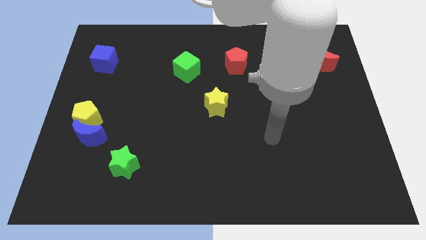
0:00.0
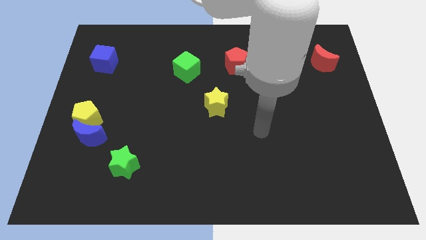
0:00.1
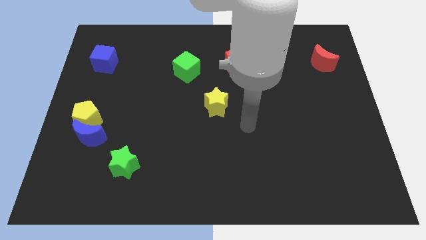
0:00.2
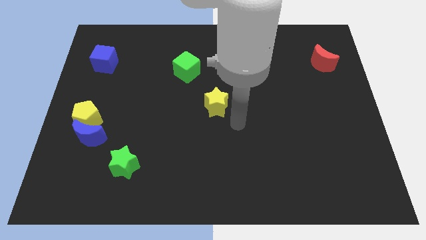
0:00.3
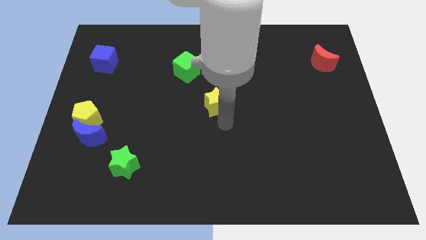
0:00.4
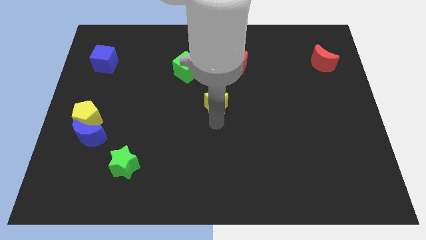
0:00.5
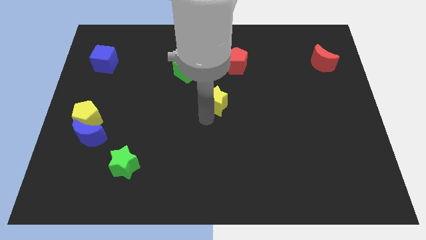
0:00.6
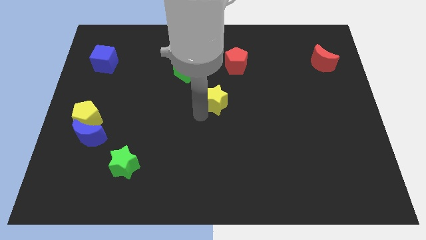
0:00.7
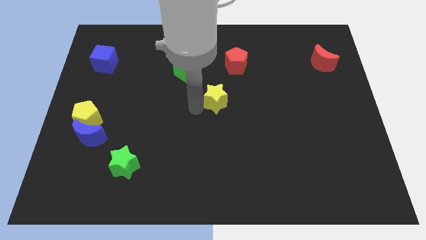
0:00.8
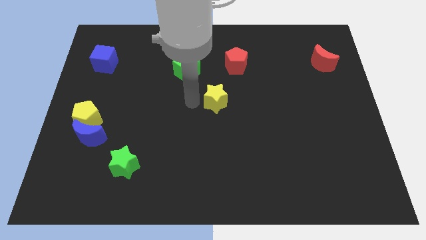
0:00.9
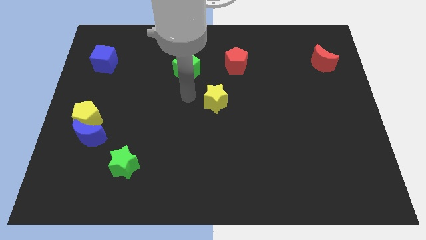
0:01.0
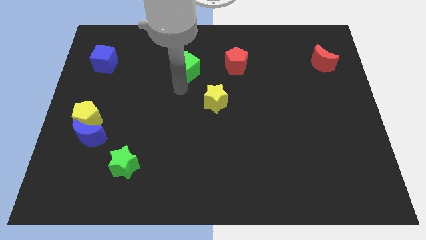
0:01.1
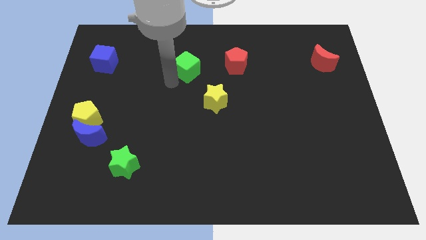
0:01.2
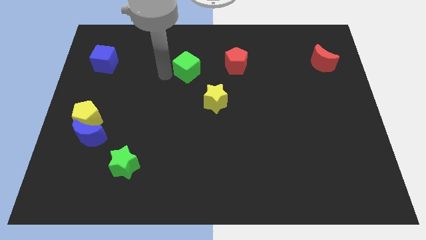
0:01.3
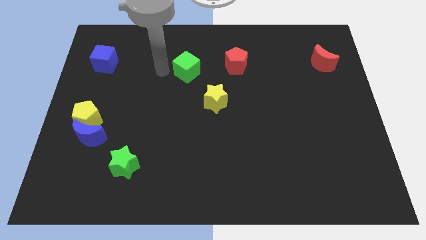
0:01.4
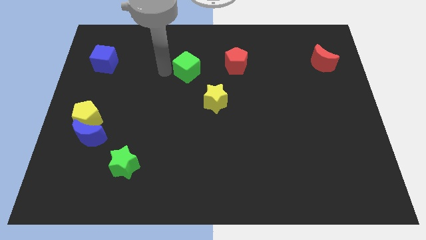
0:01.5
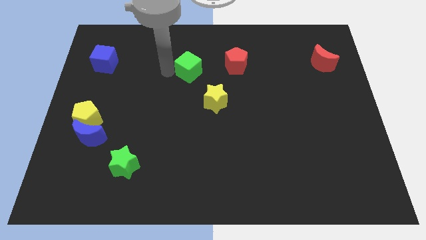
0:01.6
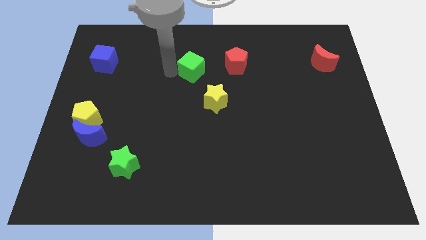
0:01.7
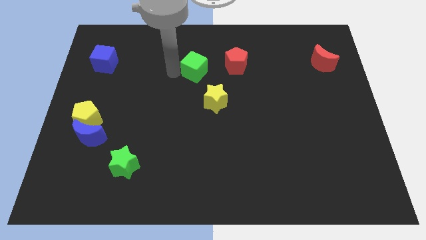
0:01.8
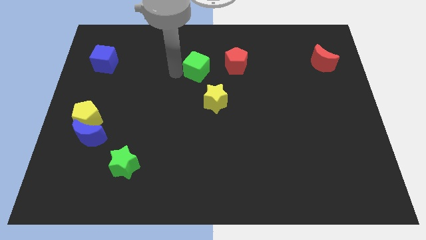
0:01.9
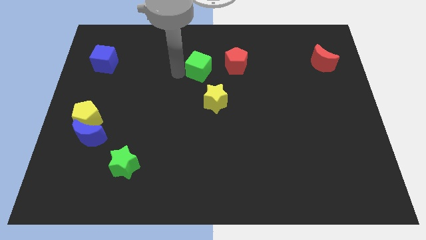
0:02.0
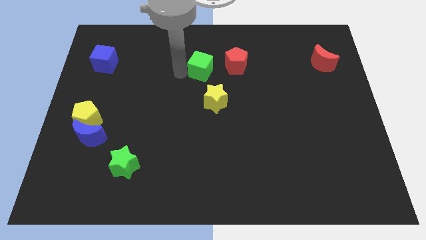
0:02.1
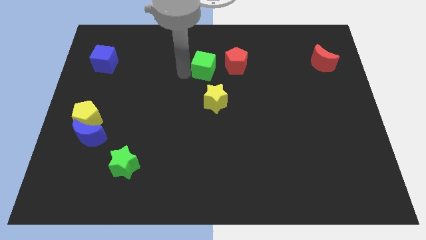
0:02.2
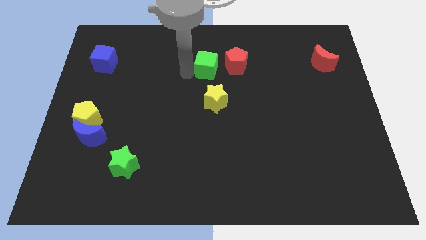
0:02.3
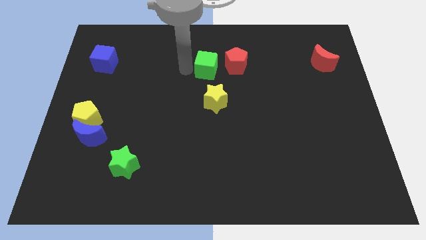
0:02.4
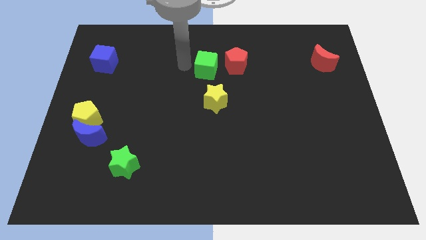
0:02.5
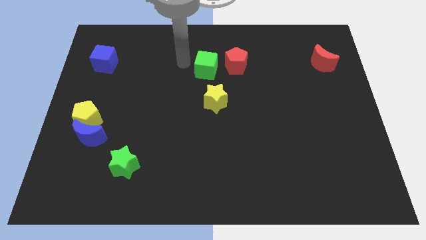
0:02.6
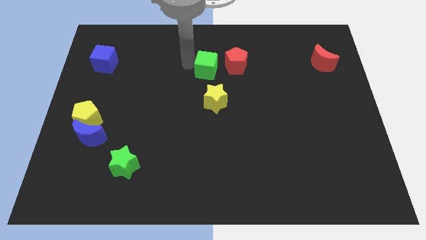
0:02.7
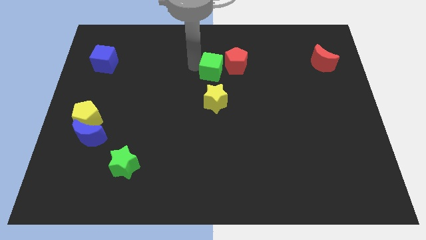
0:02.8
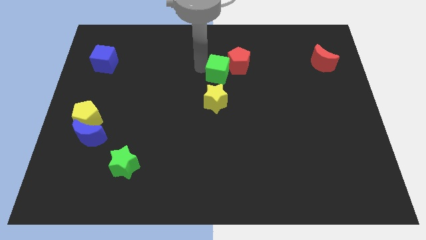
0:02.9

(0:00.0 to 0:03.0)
move the green cube right slightly

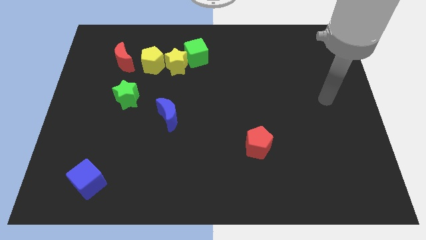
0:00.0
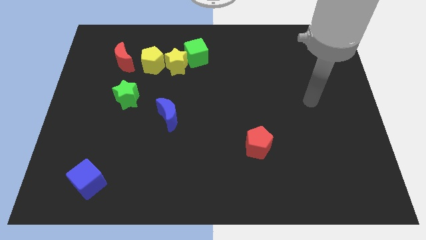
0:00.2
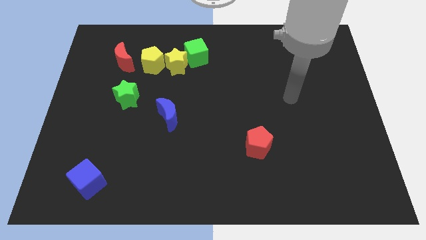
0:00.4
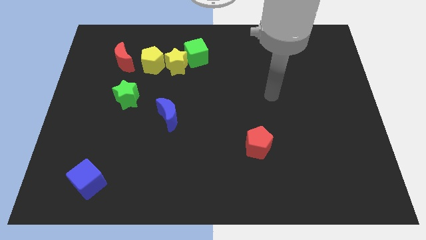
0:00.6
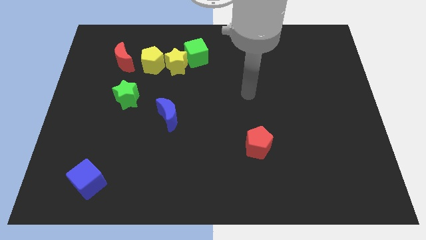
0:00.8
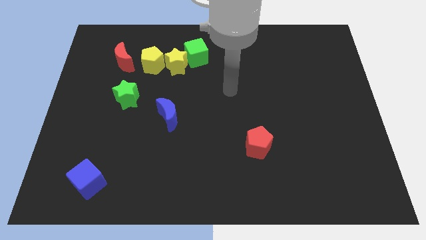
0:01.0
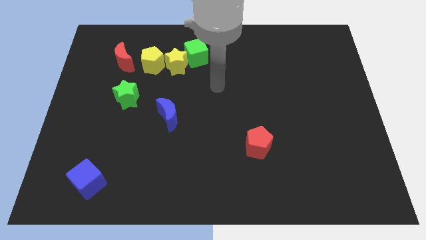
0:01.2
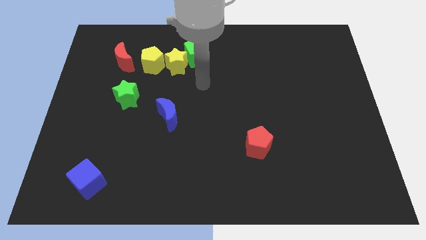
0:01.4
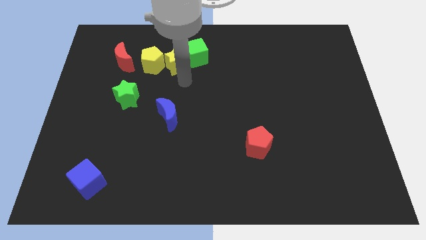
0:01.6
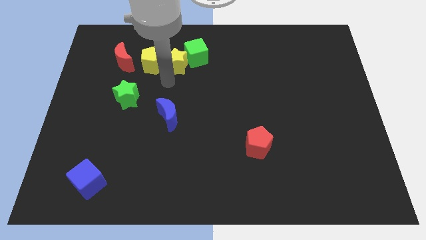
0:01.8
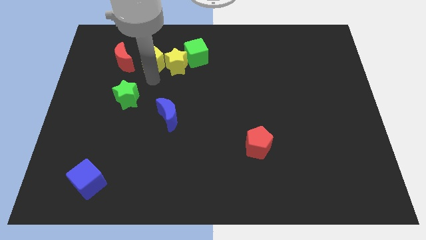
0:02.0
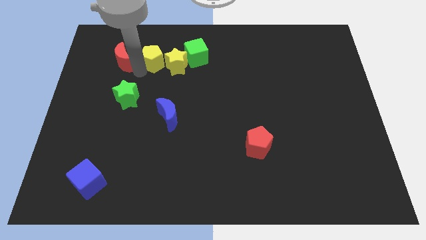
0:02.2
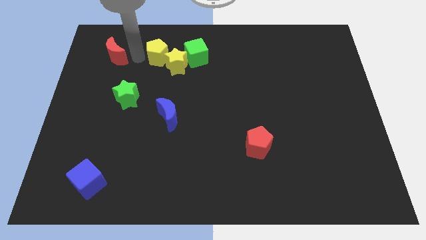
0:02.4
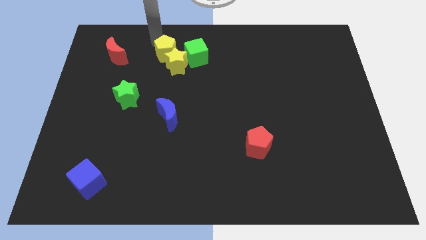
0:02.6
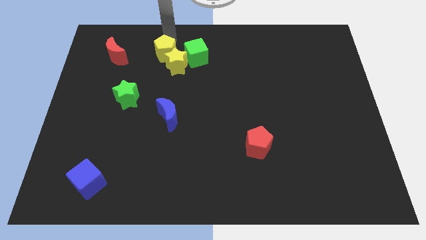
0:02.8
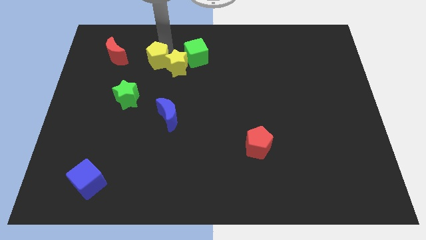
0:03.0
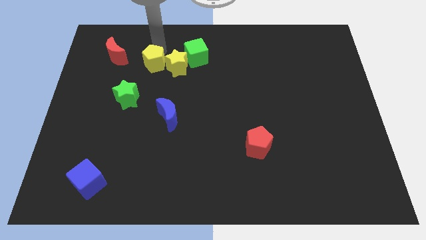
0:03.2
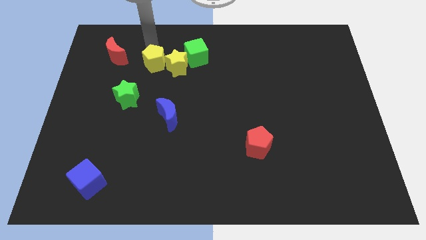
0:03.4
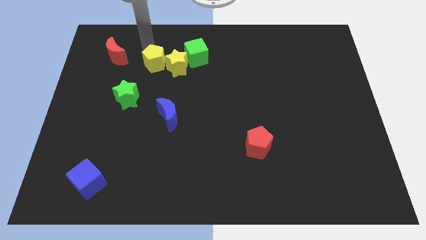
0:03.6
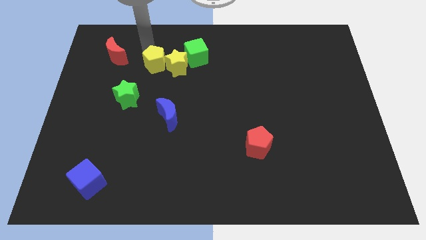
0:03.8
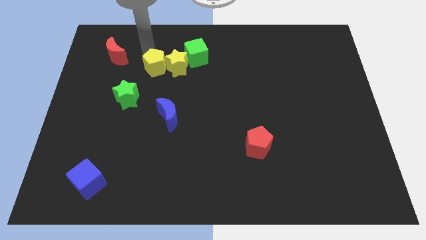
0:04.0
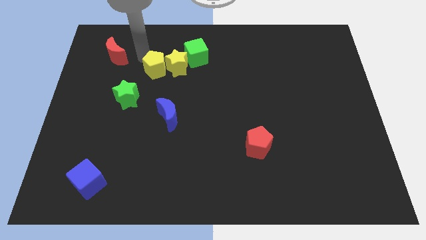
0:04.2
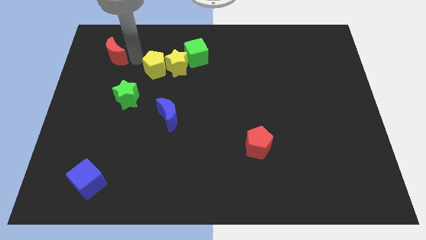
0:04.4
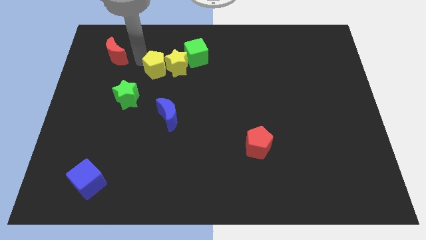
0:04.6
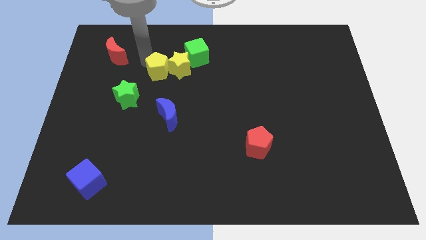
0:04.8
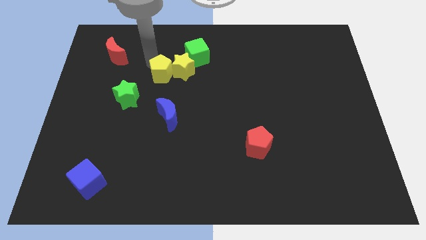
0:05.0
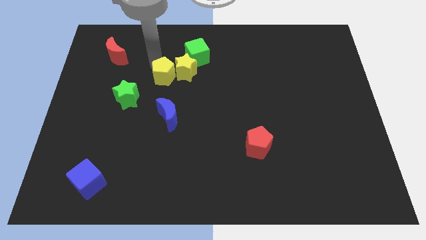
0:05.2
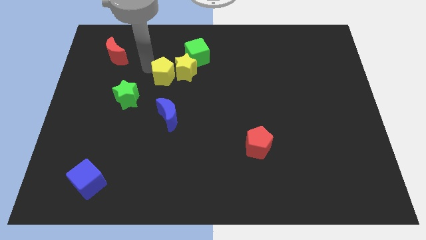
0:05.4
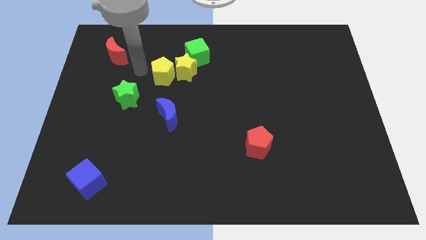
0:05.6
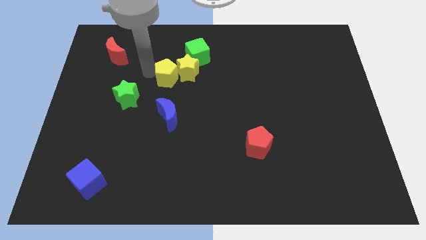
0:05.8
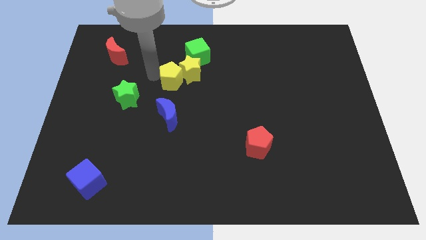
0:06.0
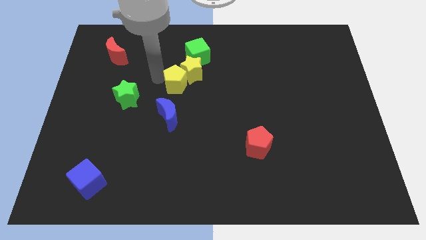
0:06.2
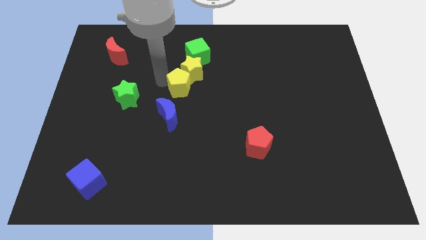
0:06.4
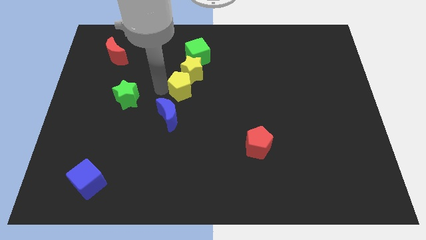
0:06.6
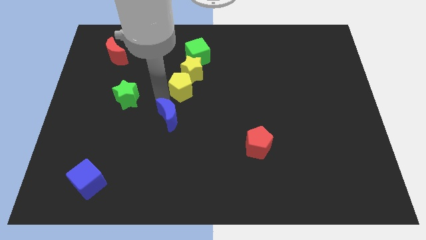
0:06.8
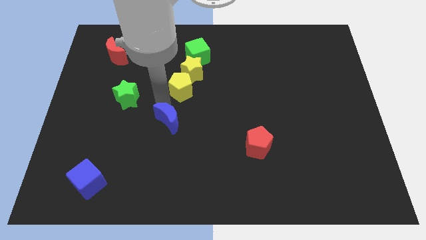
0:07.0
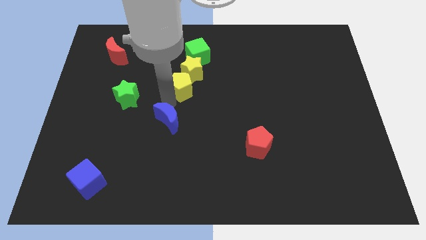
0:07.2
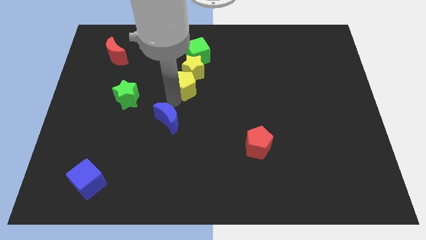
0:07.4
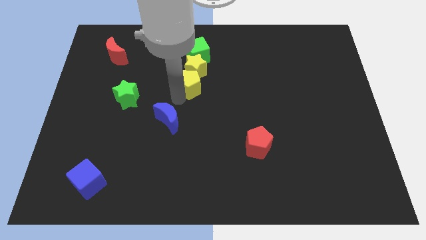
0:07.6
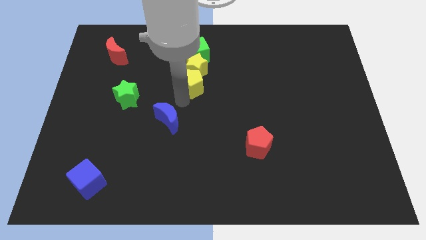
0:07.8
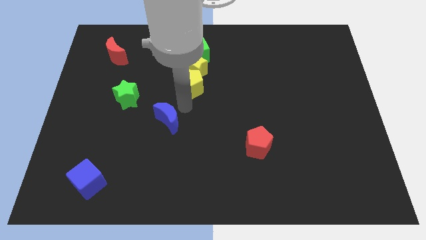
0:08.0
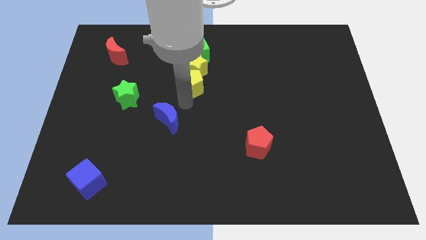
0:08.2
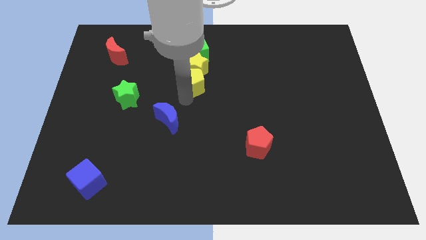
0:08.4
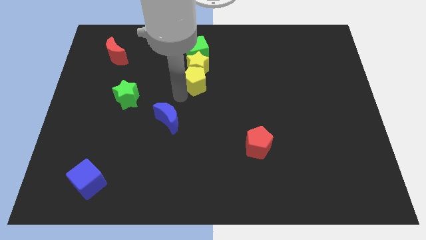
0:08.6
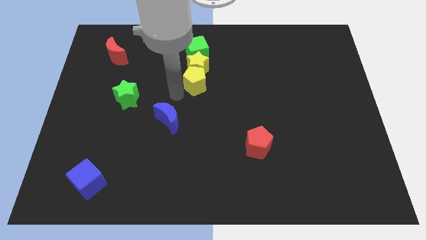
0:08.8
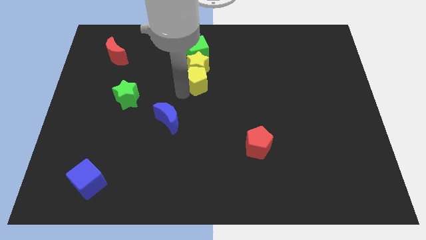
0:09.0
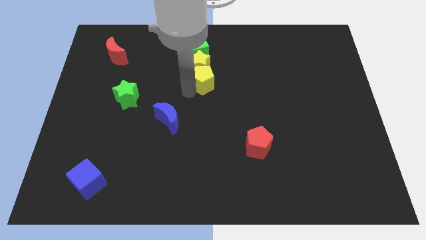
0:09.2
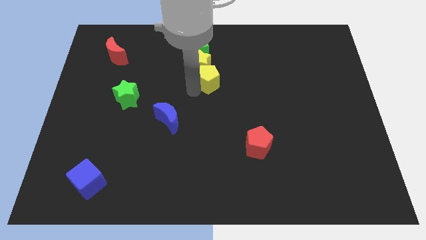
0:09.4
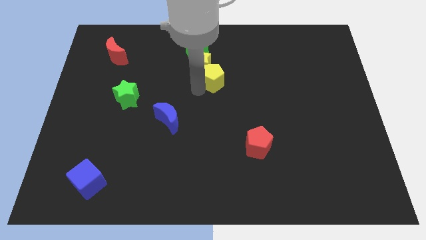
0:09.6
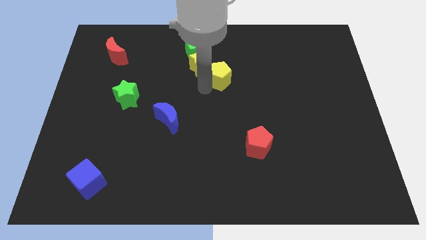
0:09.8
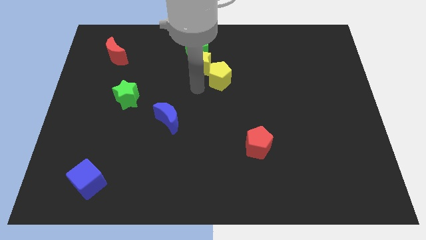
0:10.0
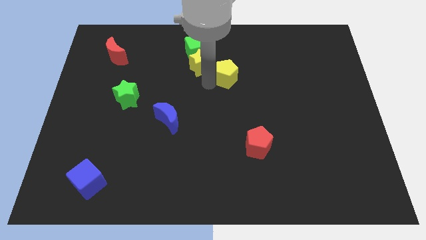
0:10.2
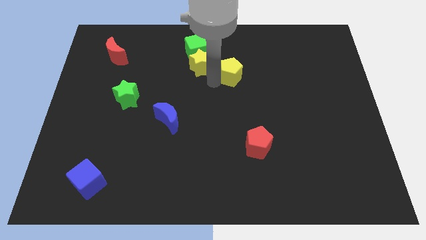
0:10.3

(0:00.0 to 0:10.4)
slide the yellow pentagon to the right
